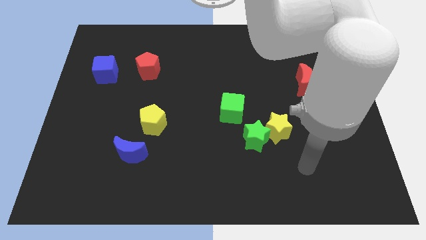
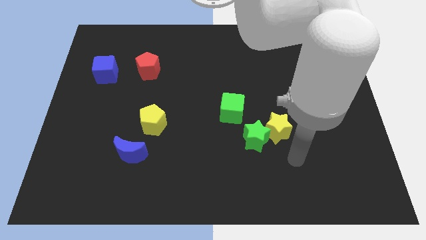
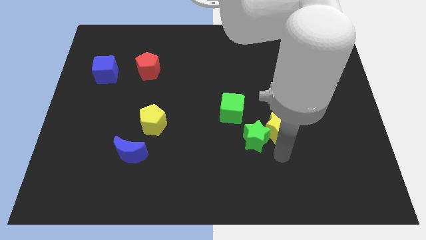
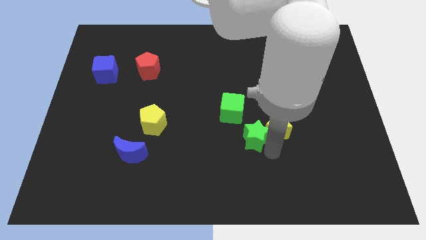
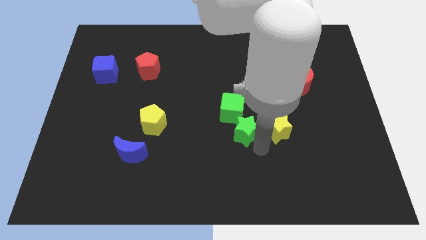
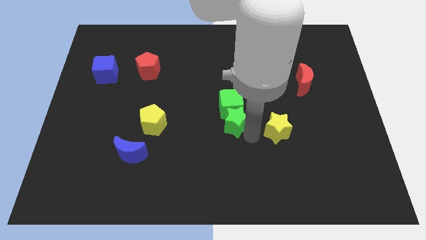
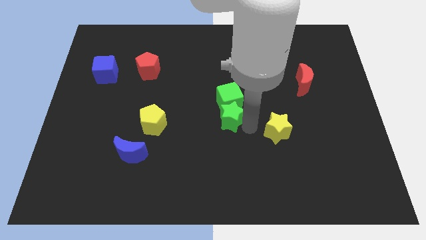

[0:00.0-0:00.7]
move the yellow star away from the green star

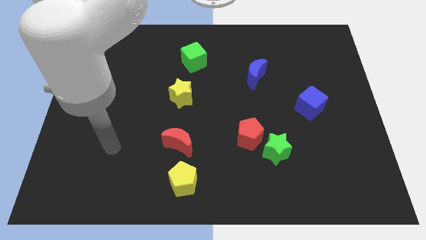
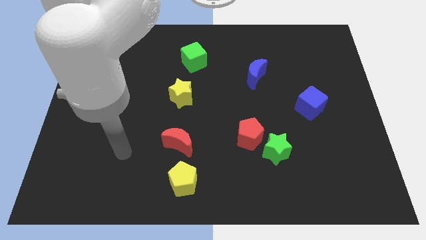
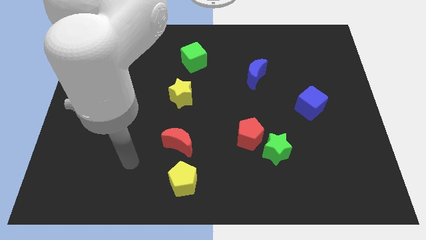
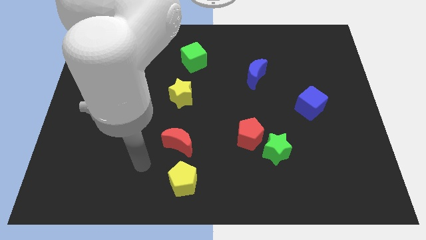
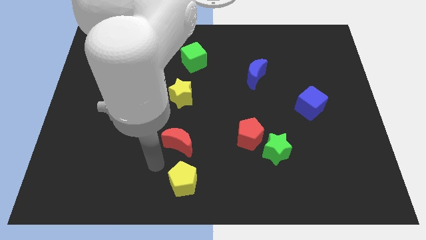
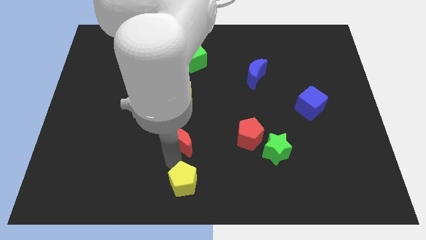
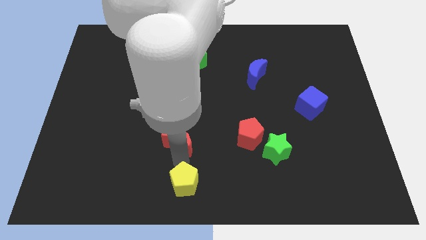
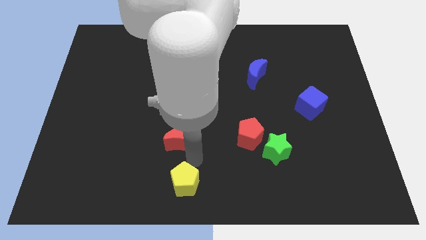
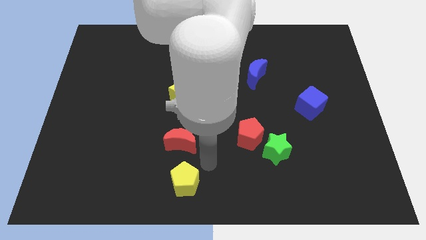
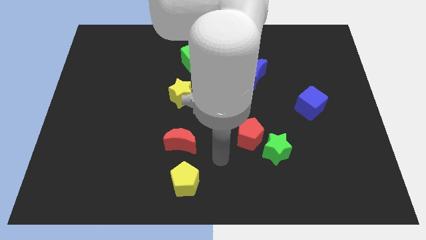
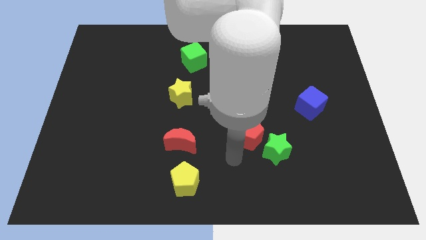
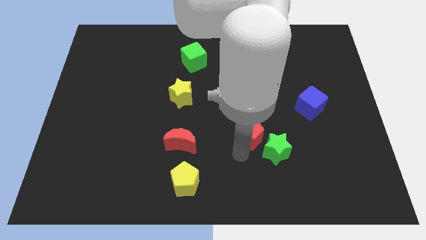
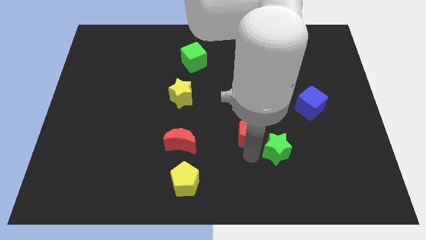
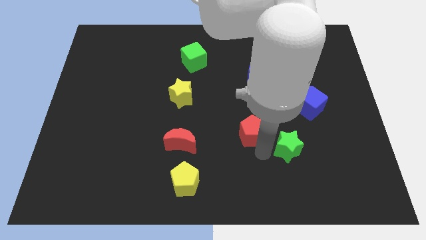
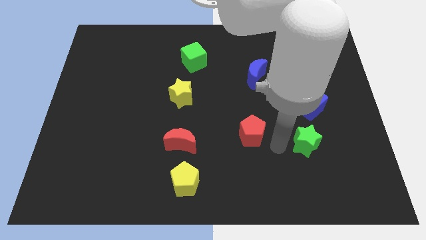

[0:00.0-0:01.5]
move the red pentagon away from the green star

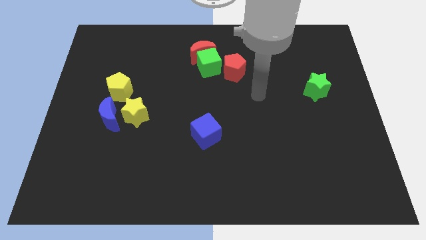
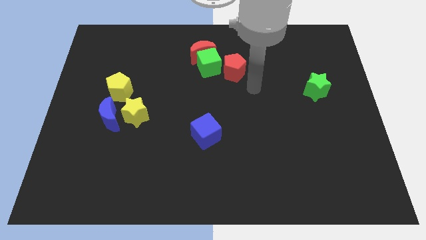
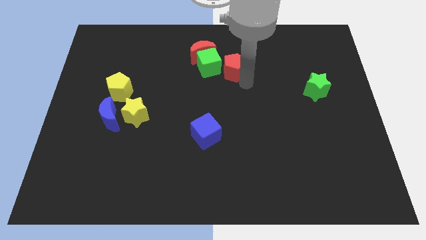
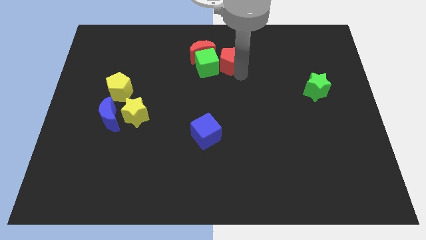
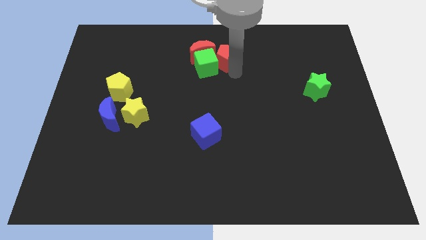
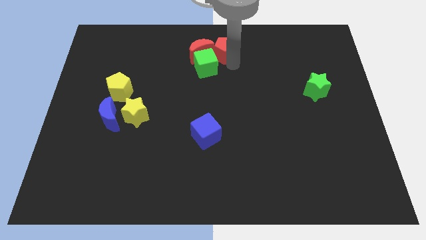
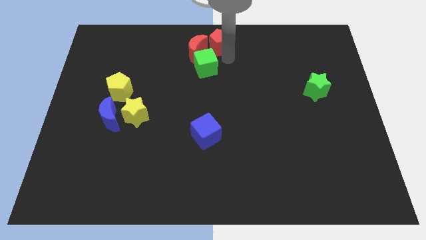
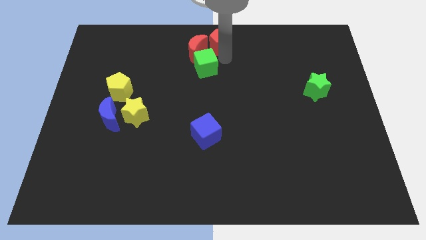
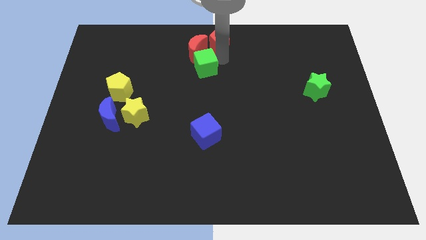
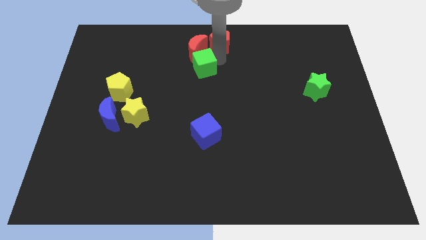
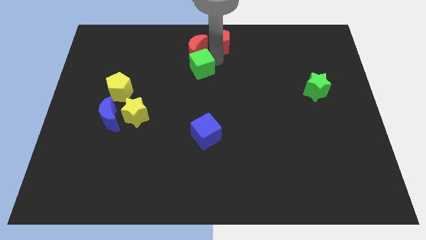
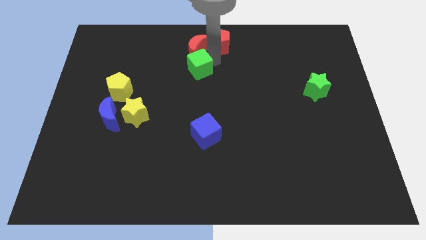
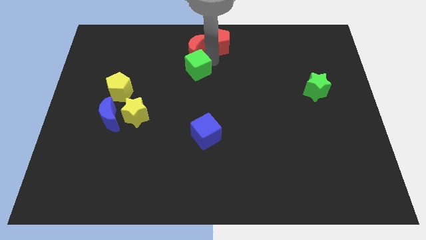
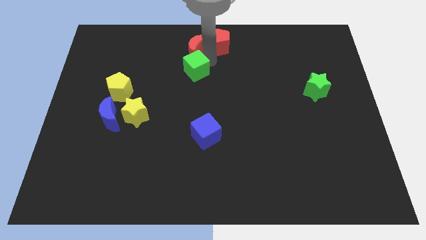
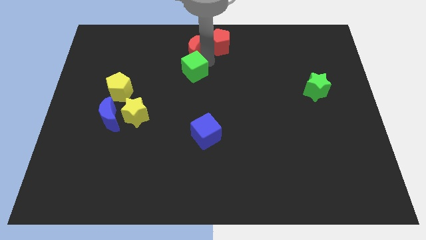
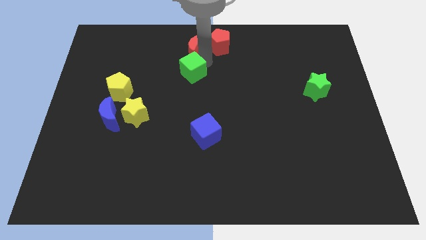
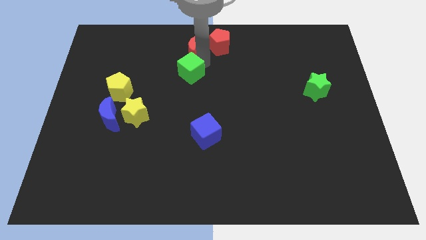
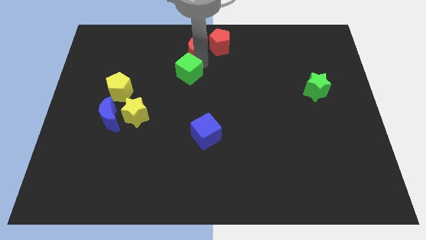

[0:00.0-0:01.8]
separate the green cube from the red moon and red pentagon

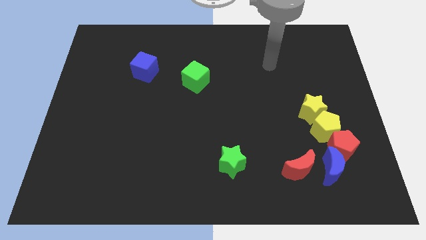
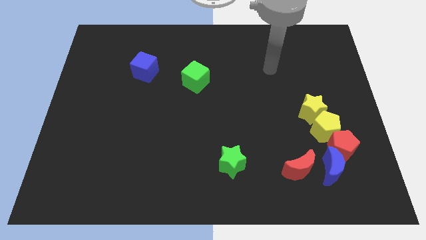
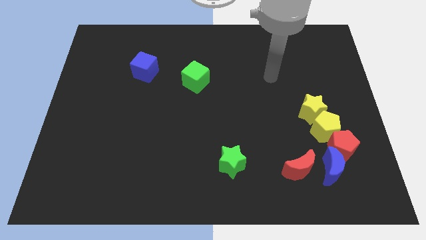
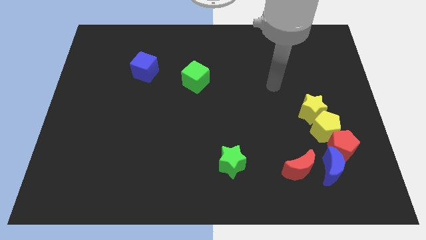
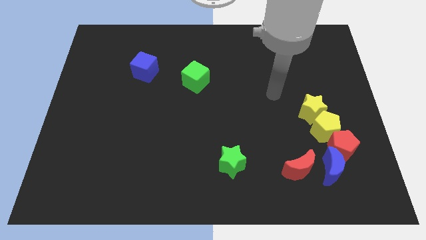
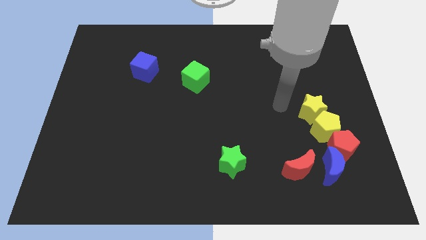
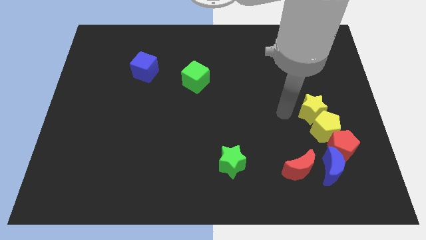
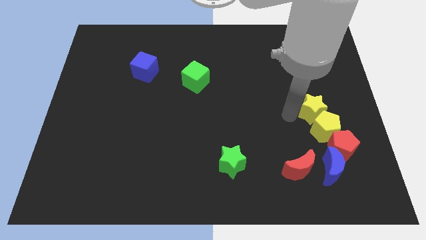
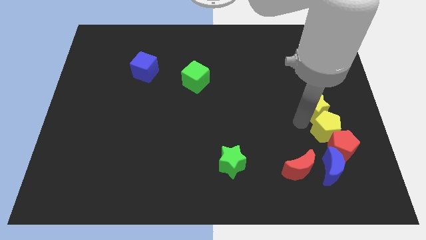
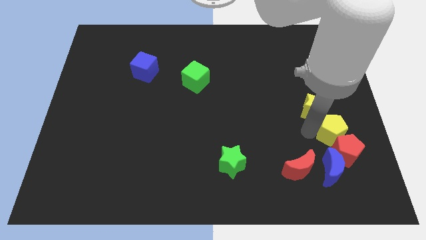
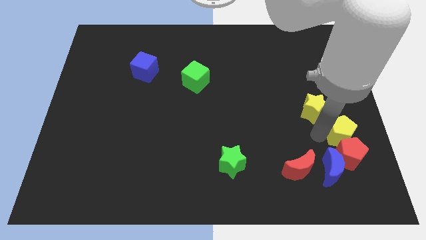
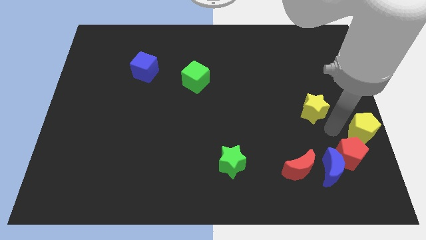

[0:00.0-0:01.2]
pull the yellow star apart from the yellow pentagon

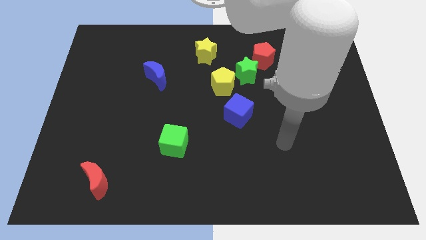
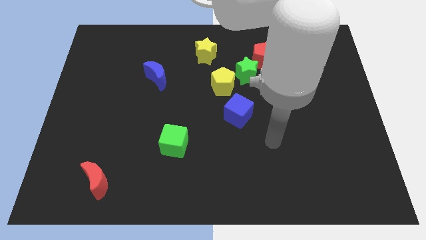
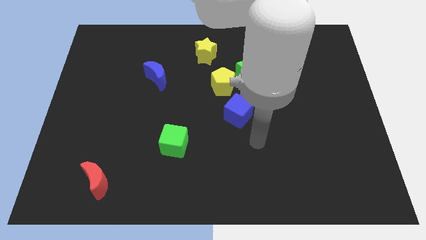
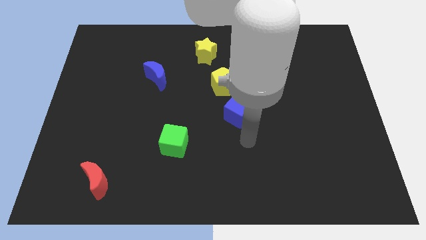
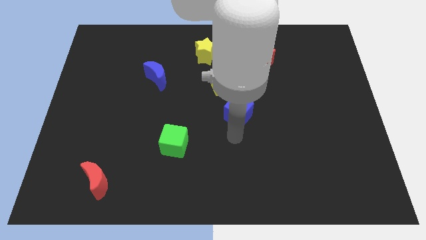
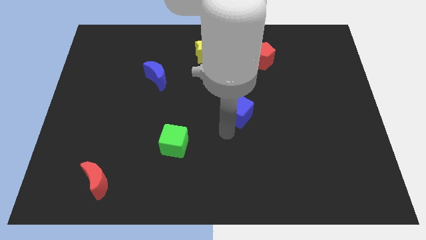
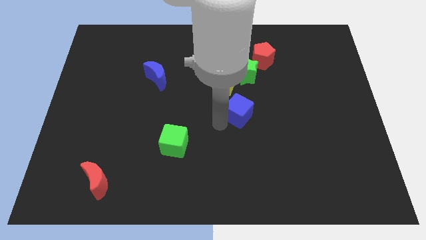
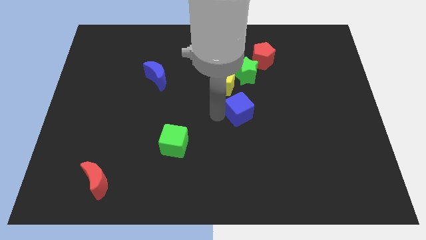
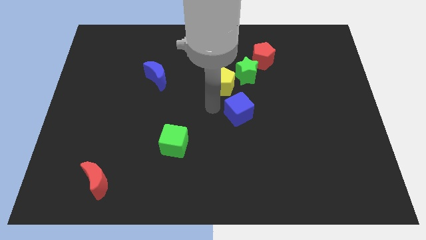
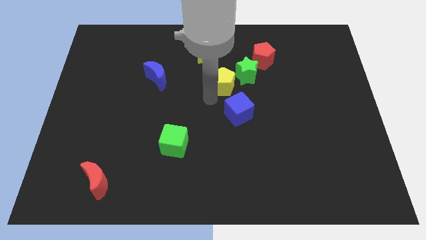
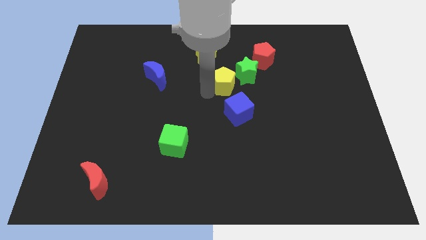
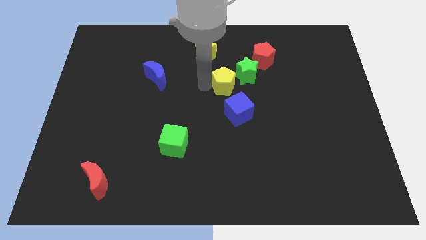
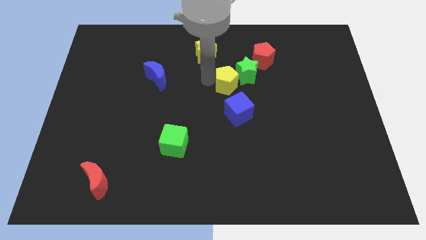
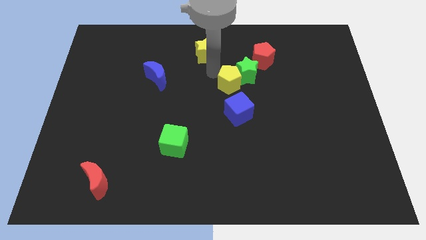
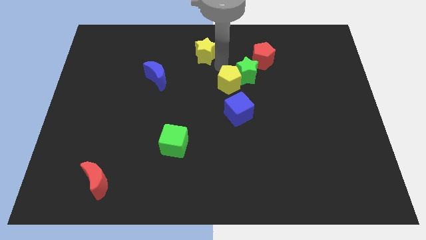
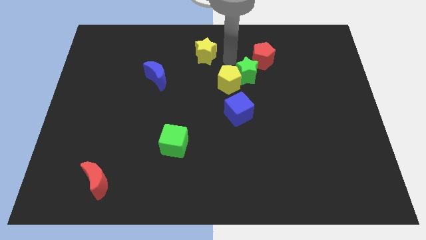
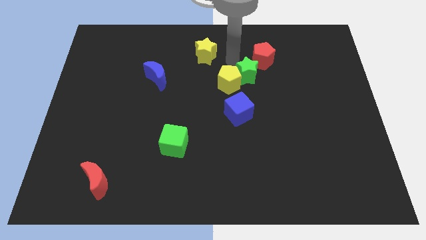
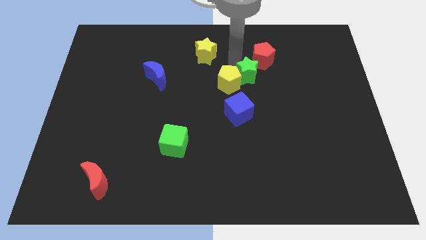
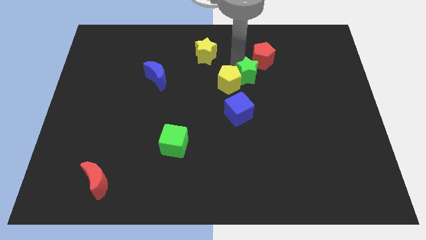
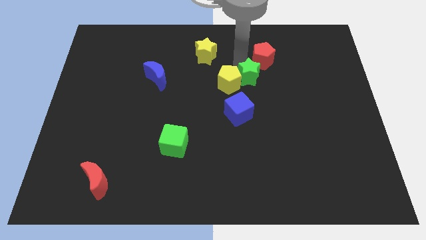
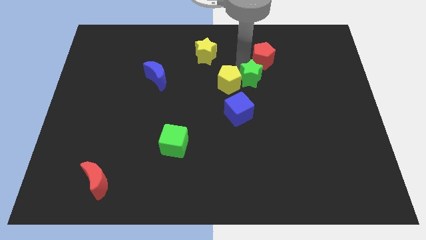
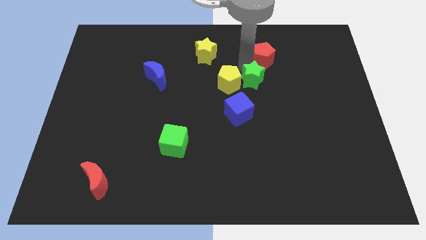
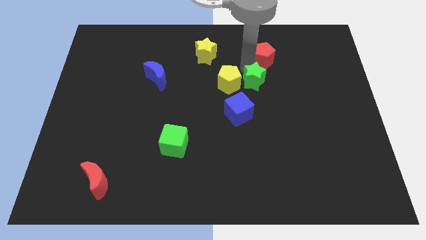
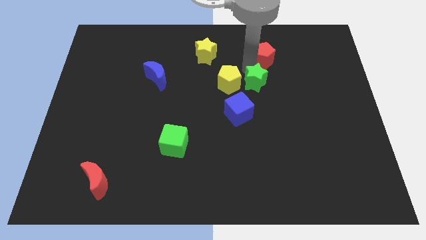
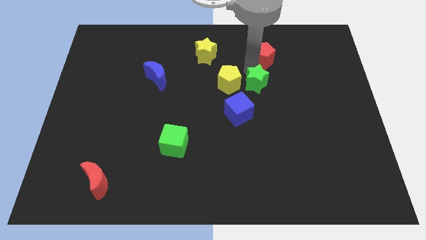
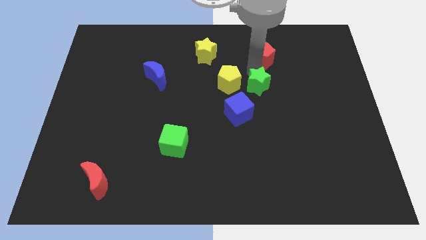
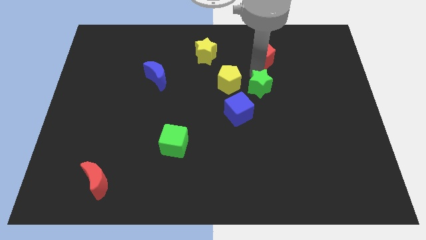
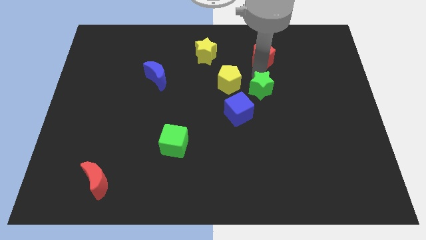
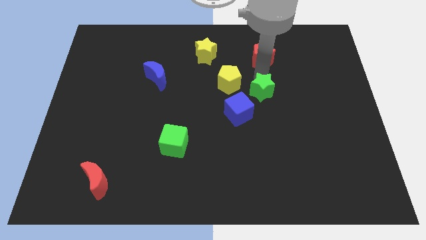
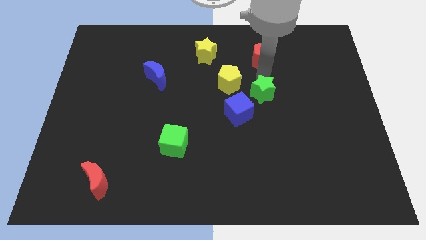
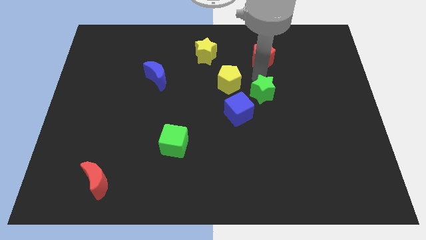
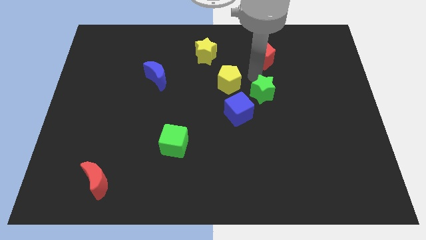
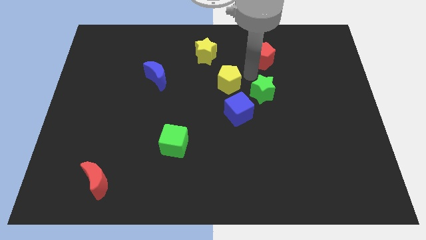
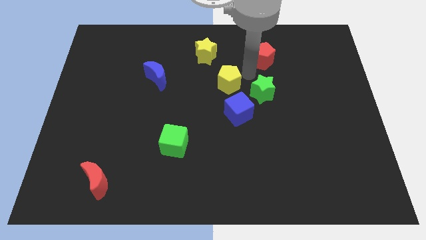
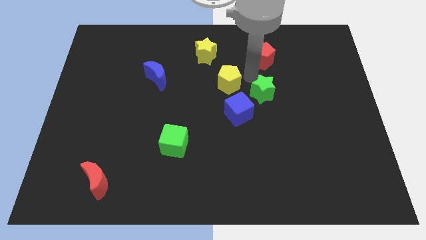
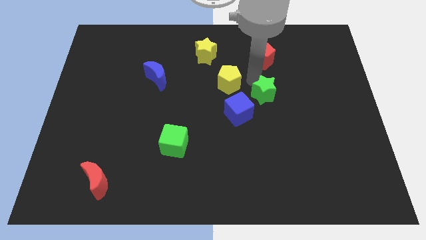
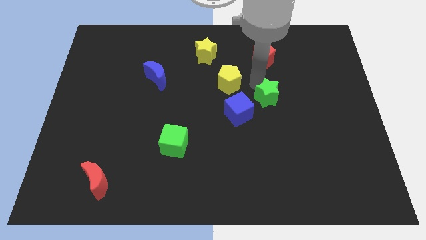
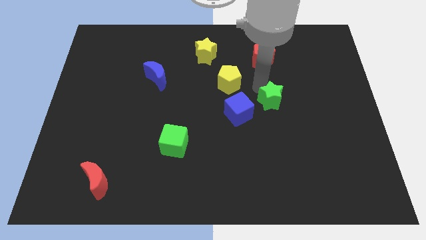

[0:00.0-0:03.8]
pull the green star apart from the yellow pentagon and red pentagon

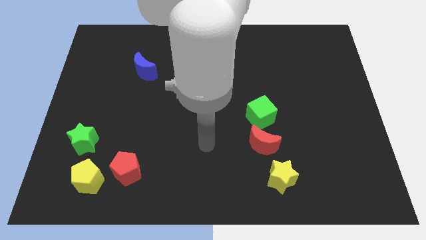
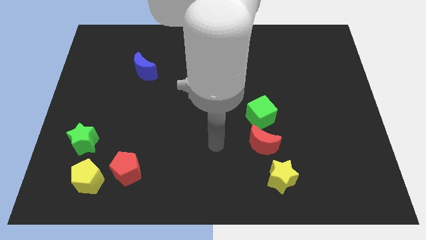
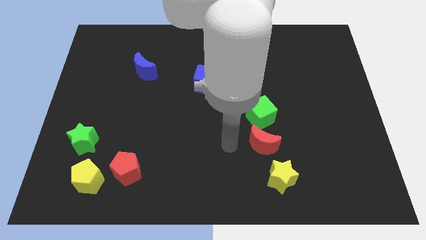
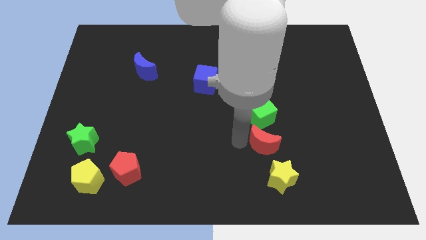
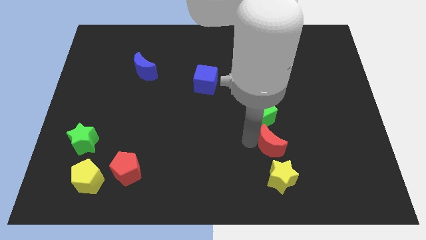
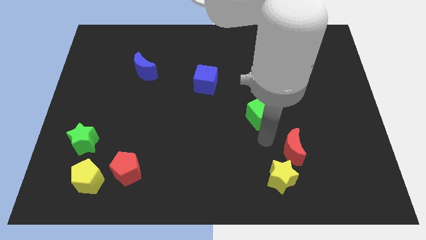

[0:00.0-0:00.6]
move the green cube away from the red moon
